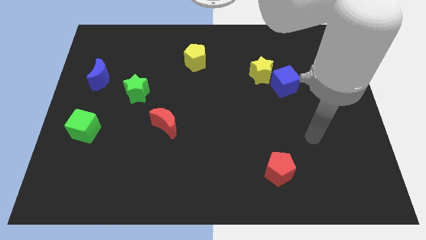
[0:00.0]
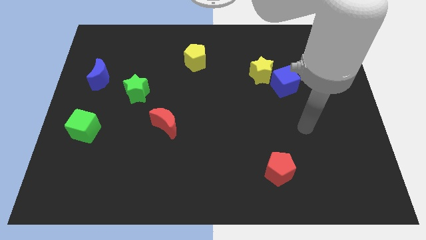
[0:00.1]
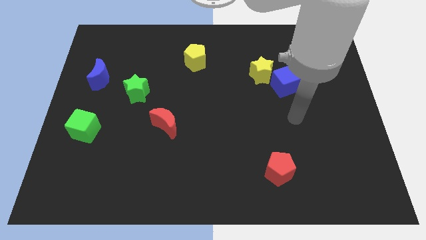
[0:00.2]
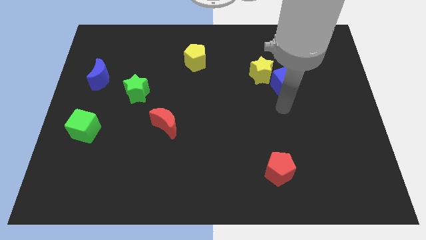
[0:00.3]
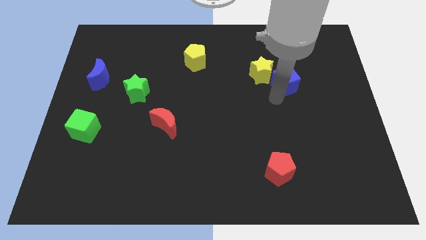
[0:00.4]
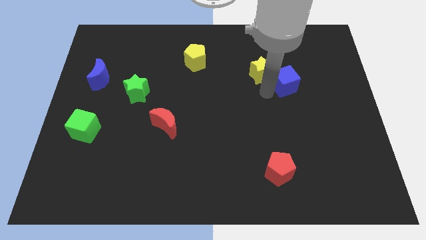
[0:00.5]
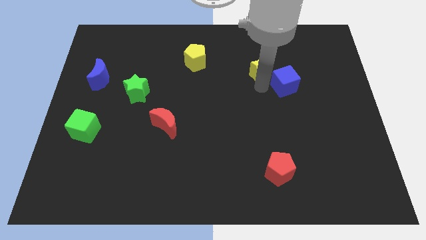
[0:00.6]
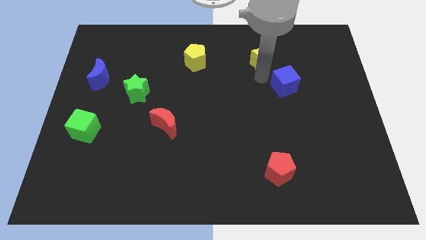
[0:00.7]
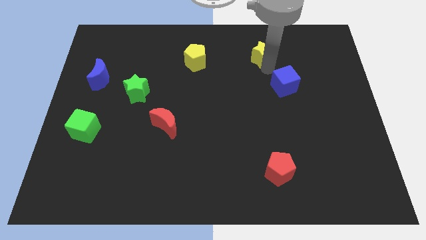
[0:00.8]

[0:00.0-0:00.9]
move the blue cube away from the yellow star

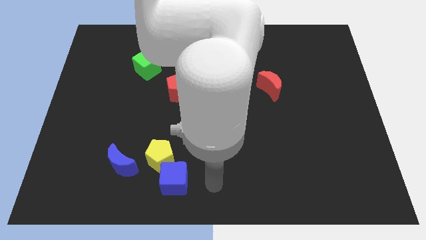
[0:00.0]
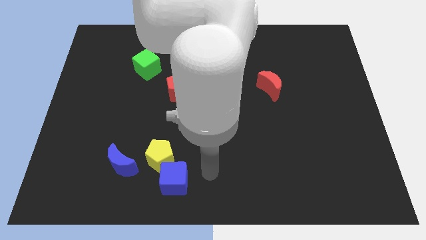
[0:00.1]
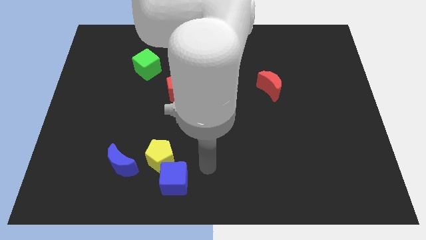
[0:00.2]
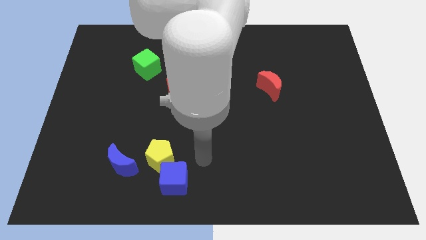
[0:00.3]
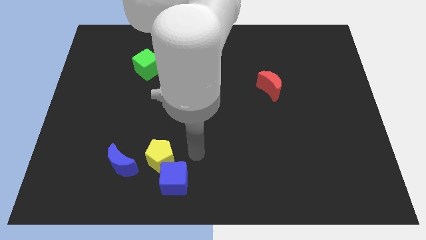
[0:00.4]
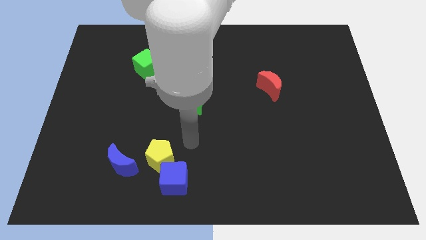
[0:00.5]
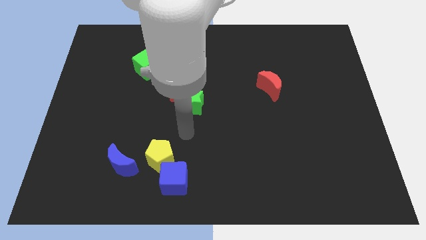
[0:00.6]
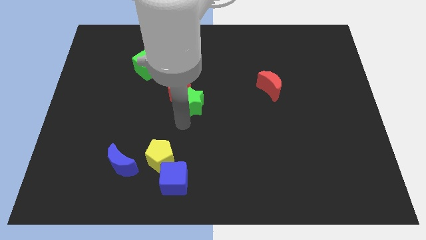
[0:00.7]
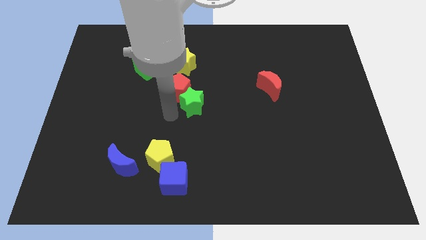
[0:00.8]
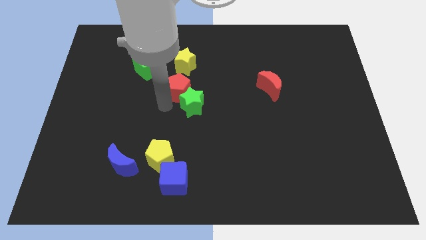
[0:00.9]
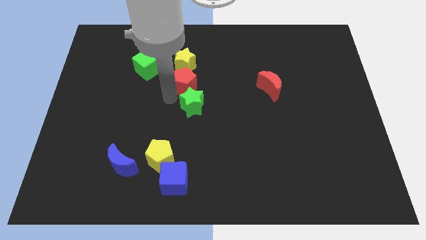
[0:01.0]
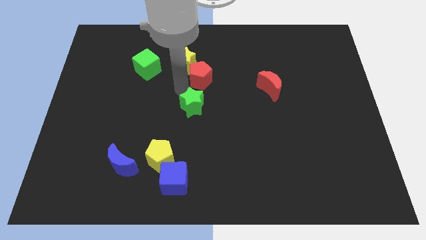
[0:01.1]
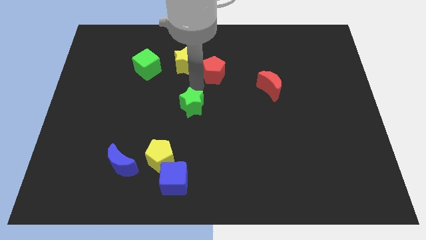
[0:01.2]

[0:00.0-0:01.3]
separate the green star from the red pentagon

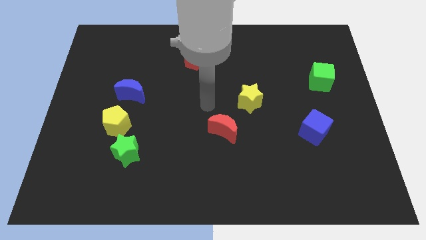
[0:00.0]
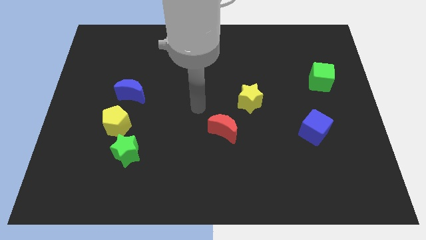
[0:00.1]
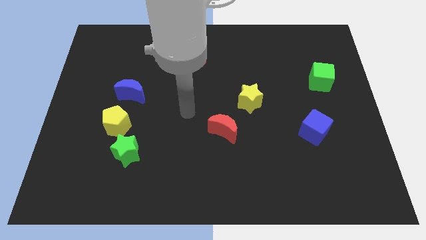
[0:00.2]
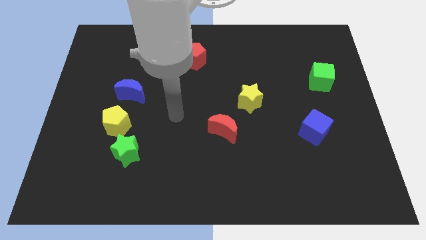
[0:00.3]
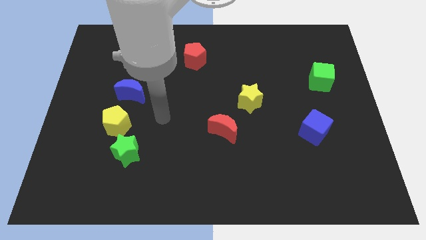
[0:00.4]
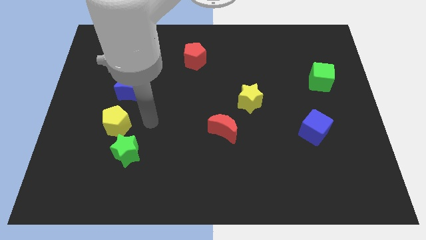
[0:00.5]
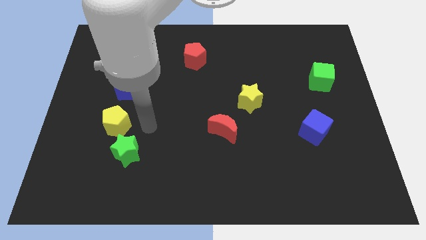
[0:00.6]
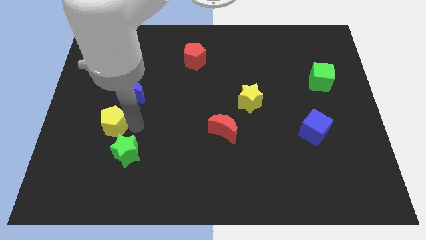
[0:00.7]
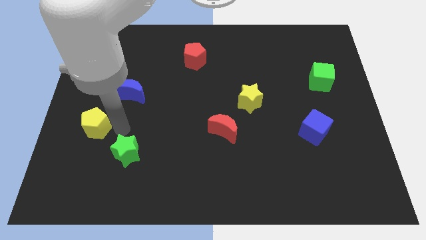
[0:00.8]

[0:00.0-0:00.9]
move the green star away from the yellow pentagon

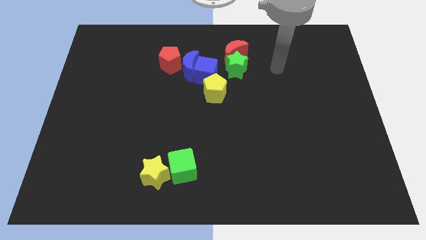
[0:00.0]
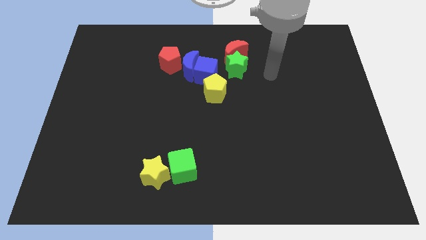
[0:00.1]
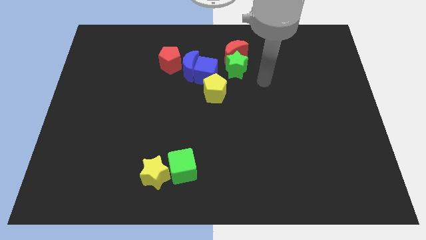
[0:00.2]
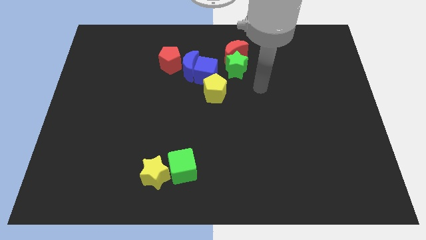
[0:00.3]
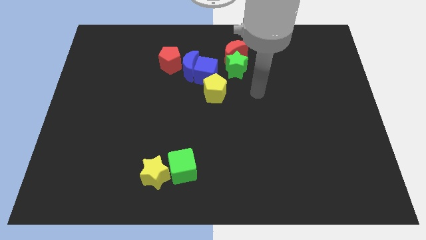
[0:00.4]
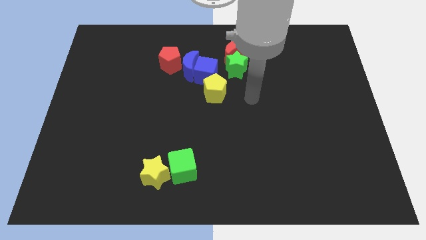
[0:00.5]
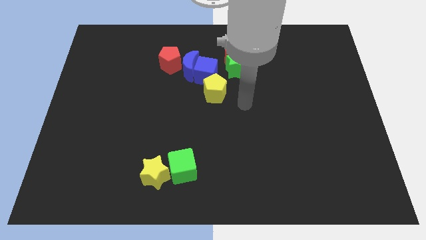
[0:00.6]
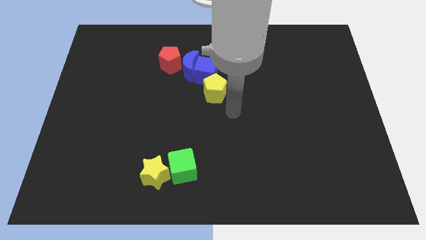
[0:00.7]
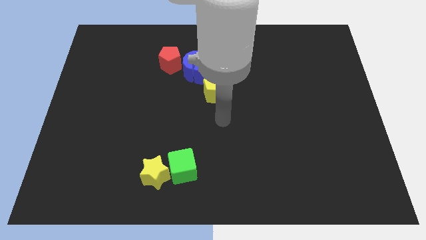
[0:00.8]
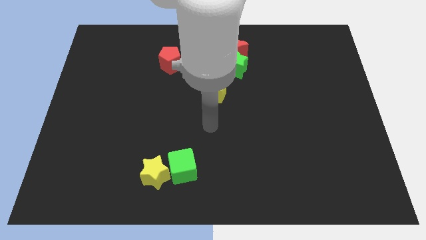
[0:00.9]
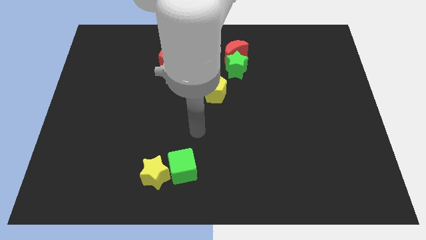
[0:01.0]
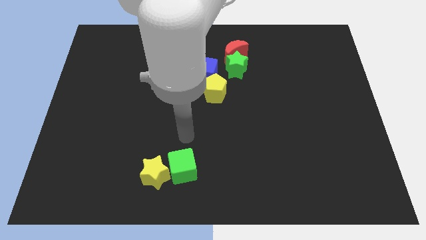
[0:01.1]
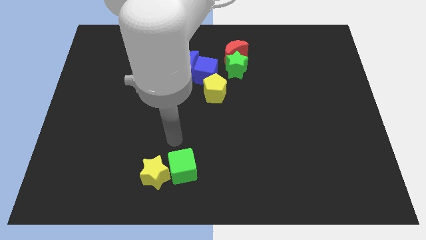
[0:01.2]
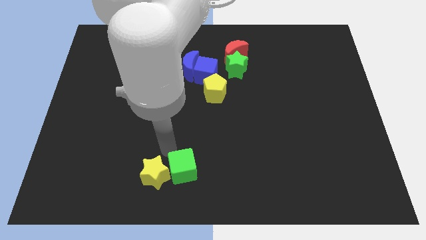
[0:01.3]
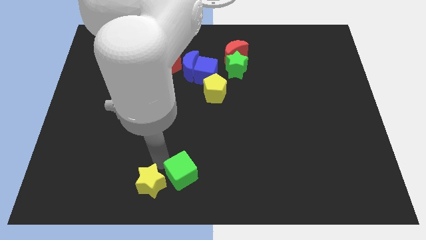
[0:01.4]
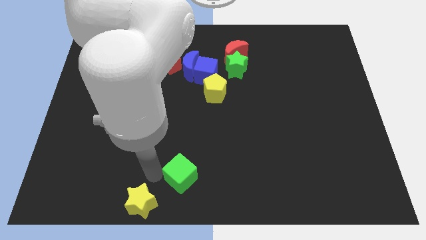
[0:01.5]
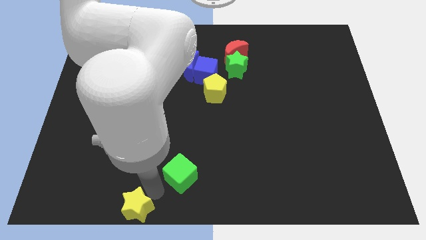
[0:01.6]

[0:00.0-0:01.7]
separate the green cube from the yellow star

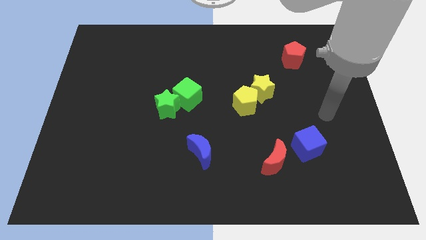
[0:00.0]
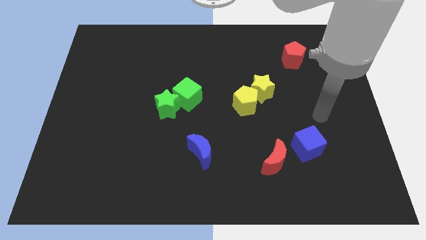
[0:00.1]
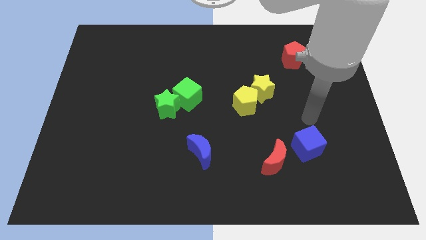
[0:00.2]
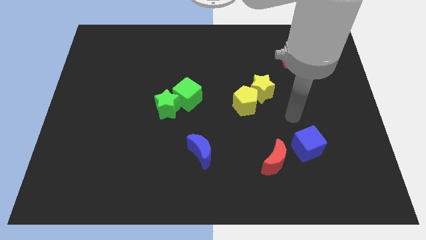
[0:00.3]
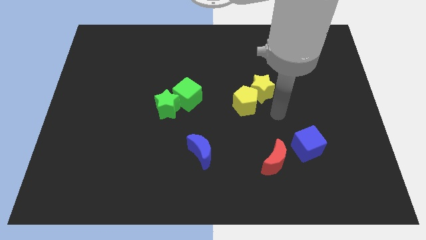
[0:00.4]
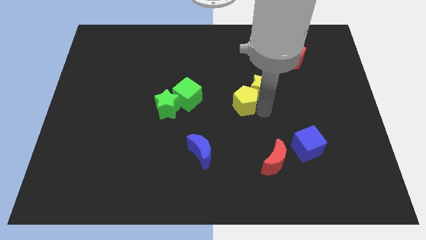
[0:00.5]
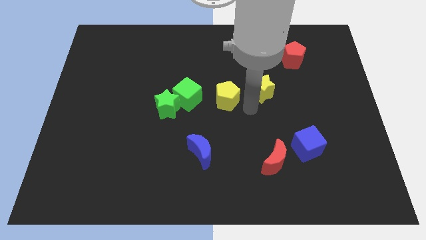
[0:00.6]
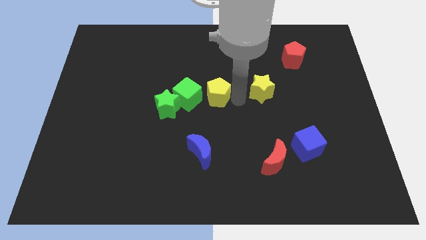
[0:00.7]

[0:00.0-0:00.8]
pull the yellow star apart from the yellow pentagon

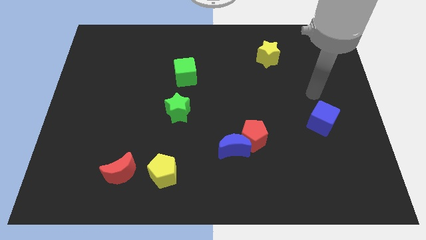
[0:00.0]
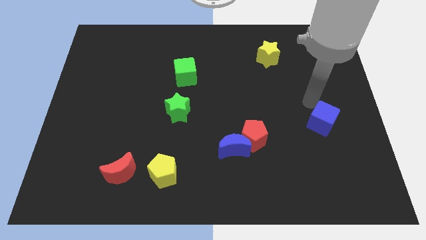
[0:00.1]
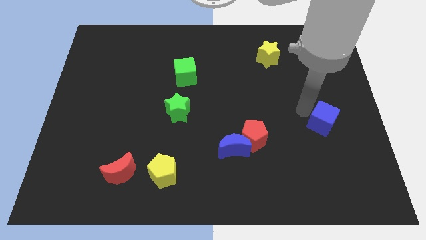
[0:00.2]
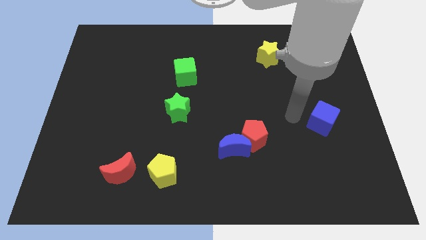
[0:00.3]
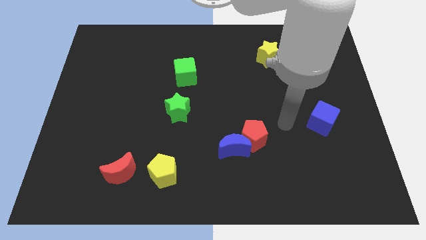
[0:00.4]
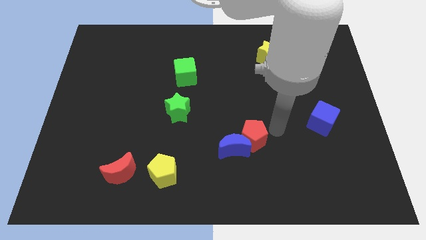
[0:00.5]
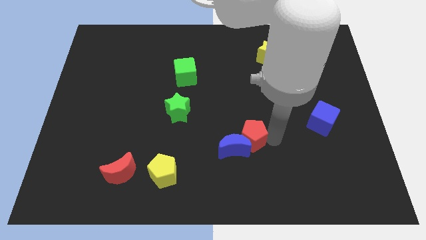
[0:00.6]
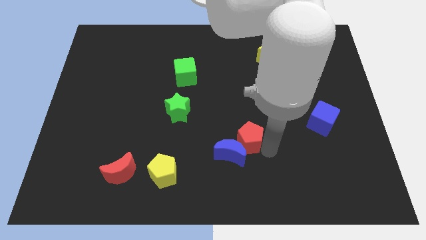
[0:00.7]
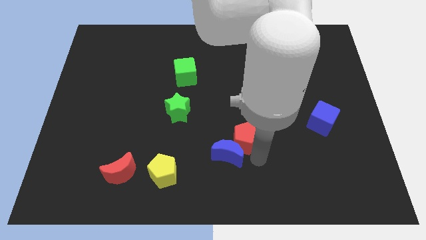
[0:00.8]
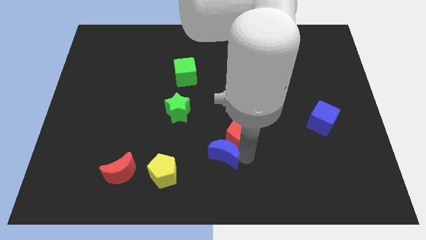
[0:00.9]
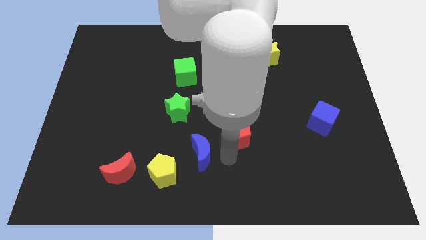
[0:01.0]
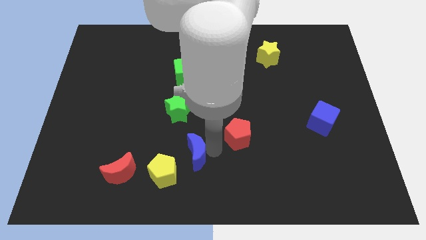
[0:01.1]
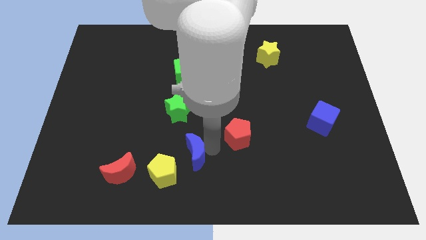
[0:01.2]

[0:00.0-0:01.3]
pull the red pentagon apart from the blue moon

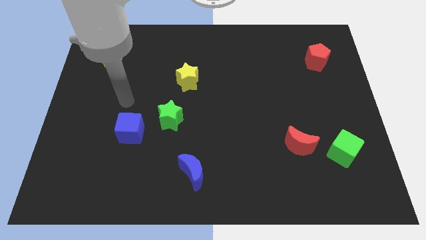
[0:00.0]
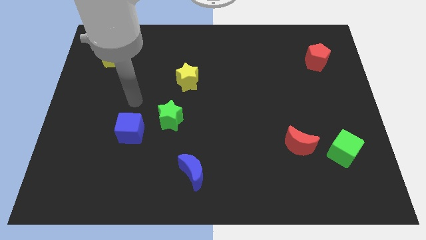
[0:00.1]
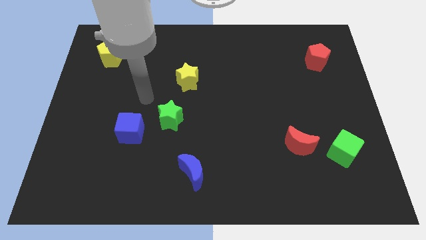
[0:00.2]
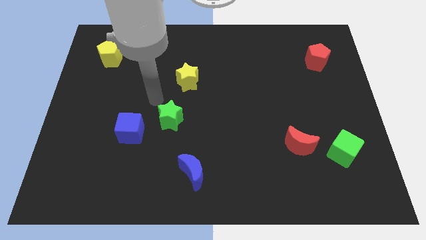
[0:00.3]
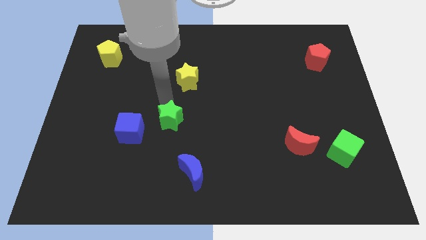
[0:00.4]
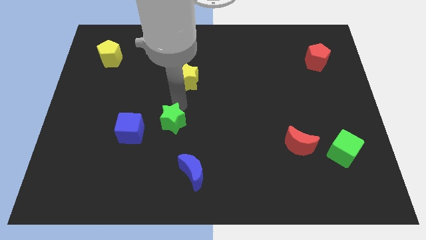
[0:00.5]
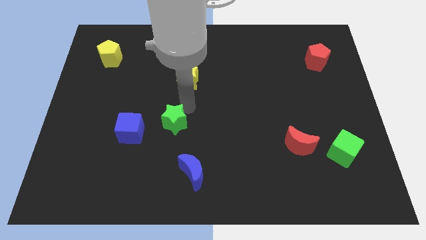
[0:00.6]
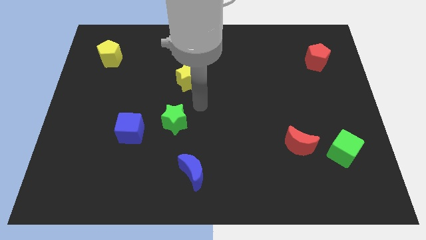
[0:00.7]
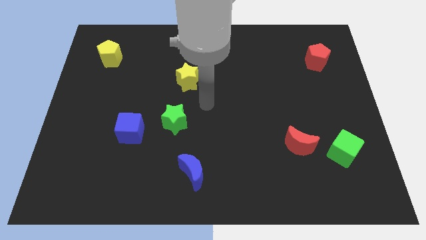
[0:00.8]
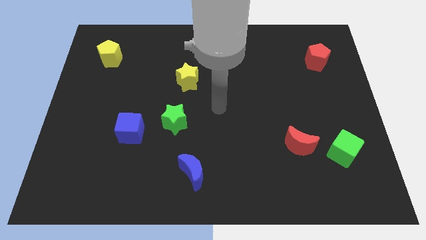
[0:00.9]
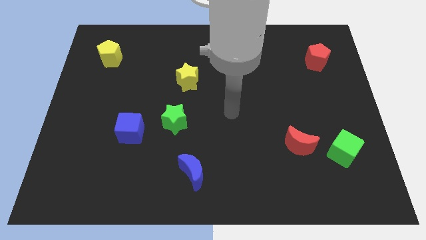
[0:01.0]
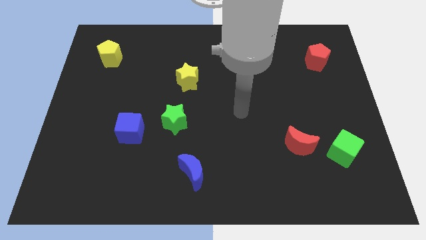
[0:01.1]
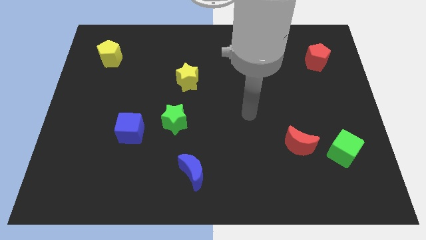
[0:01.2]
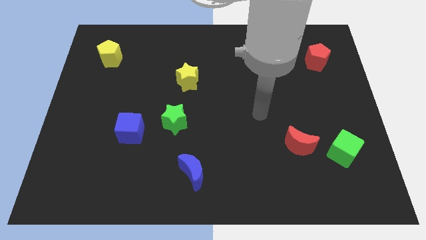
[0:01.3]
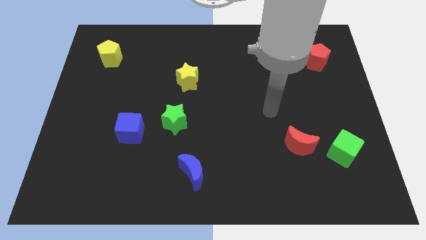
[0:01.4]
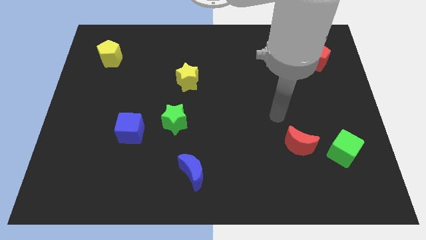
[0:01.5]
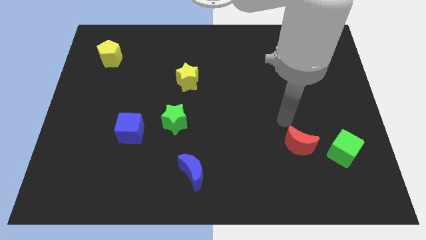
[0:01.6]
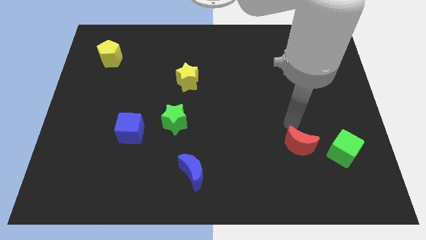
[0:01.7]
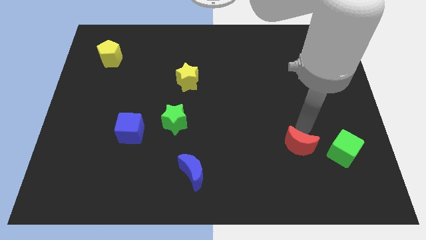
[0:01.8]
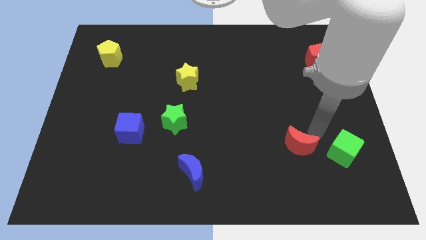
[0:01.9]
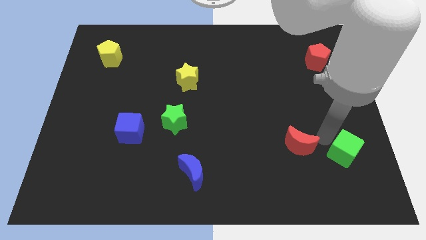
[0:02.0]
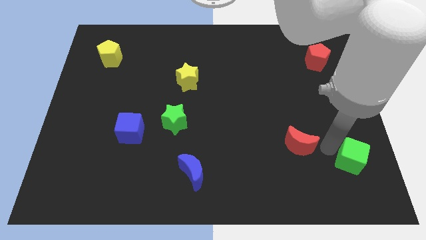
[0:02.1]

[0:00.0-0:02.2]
pull the red moon apart from the green cube

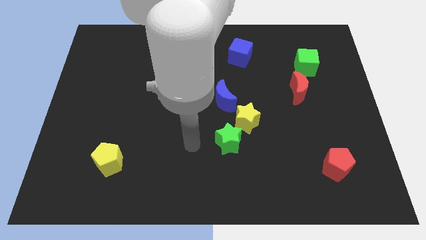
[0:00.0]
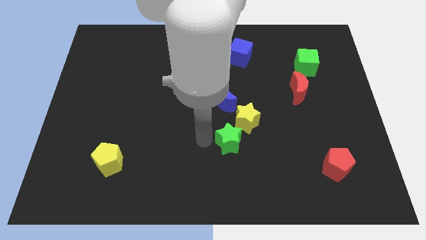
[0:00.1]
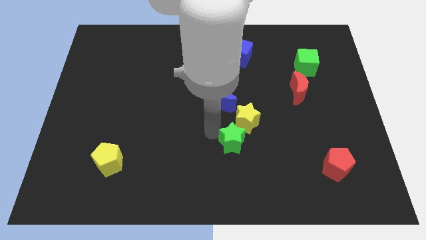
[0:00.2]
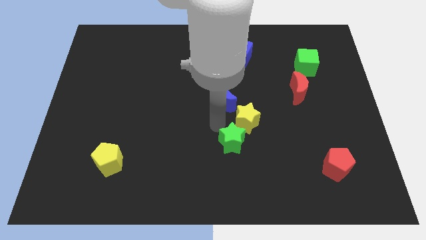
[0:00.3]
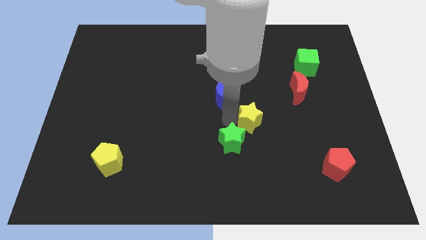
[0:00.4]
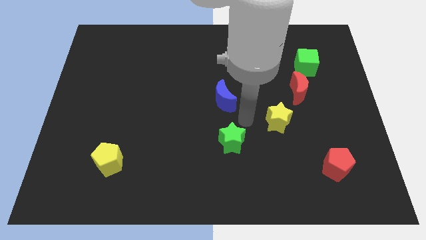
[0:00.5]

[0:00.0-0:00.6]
pull the green star apart from the yellow star
